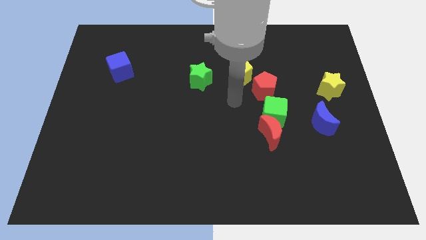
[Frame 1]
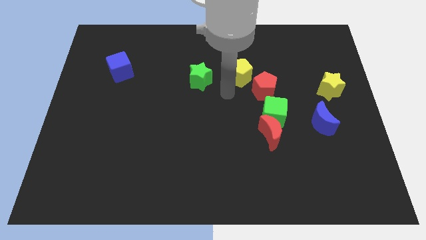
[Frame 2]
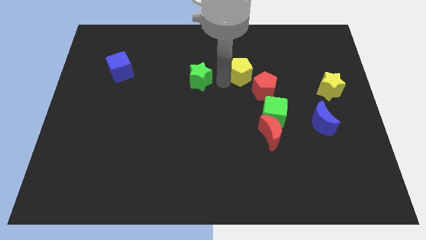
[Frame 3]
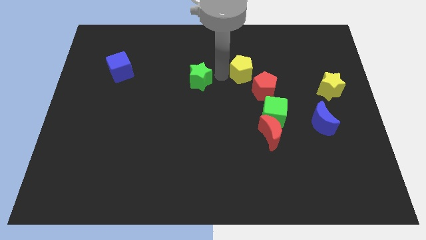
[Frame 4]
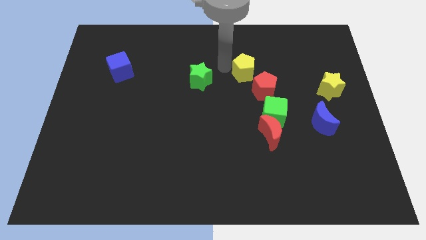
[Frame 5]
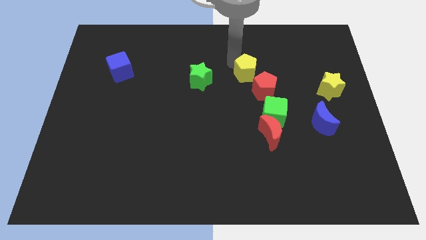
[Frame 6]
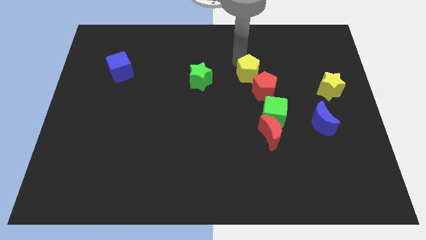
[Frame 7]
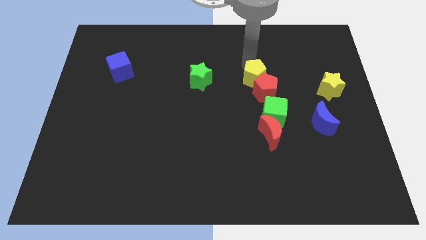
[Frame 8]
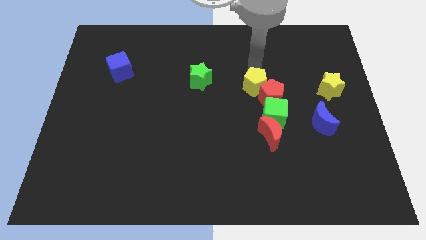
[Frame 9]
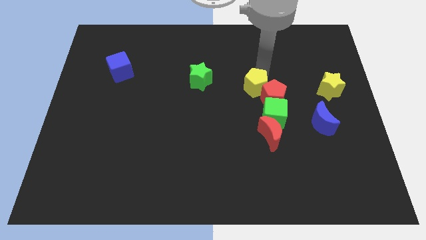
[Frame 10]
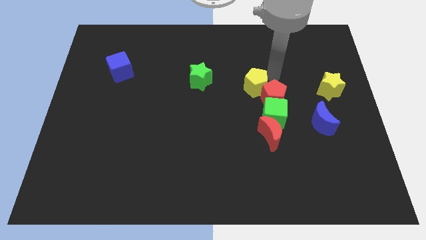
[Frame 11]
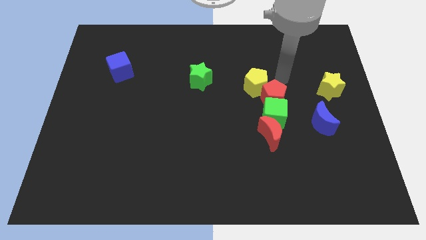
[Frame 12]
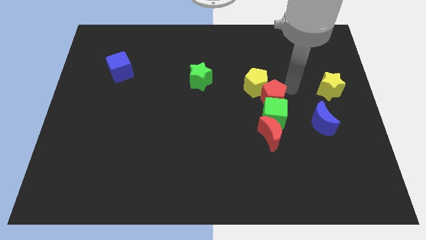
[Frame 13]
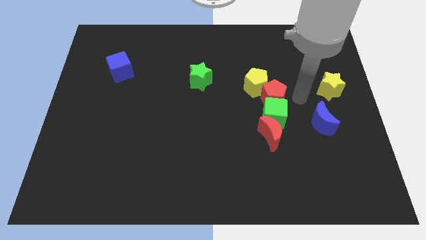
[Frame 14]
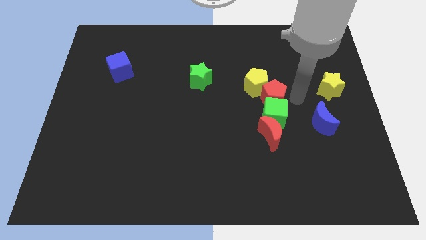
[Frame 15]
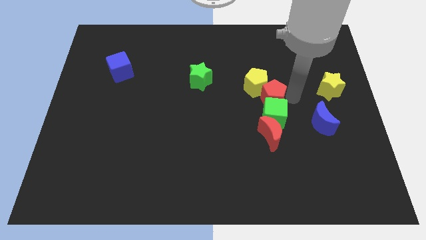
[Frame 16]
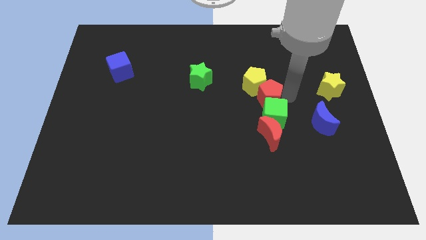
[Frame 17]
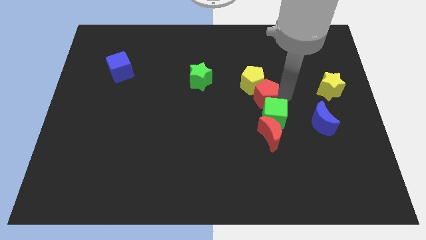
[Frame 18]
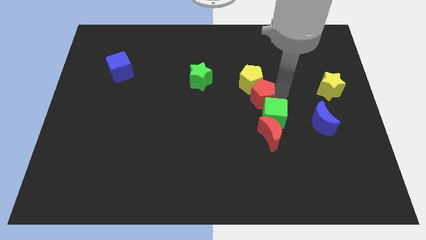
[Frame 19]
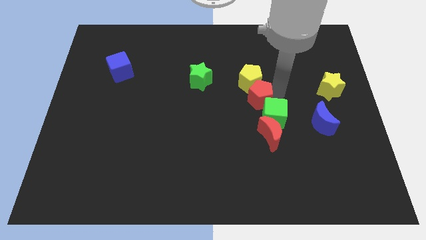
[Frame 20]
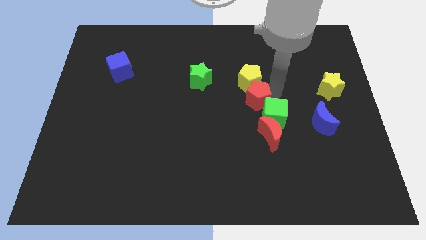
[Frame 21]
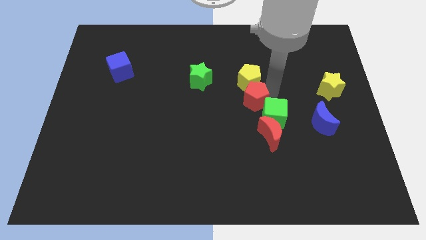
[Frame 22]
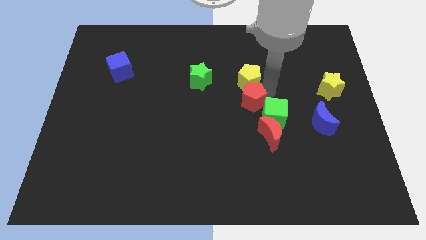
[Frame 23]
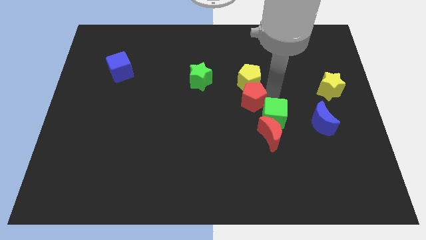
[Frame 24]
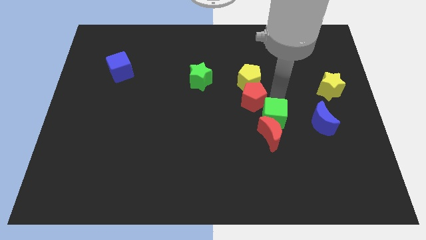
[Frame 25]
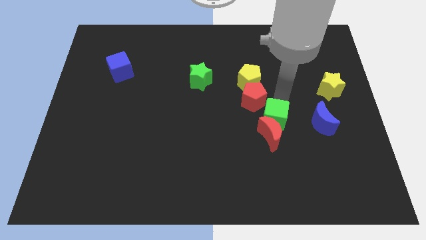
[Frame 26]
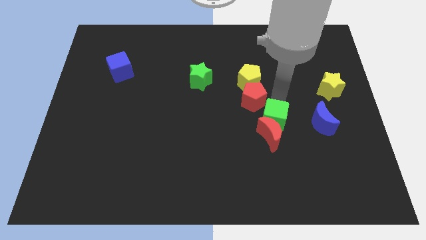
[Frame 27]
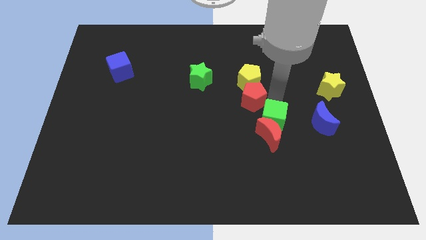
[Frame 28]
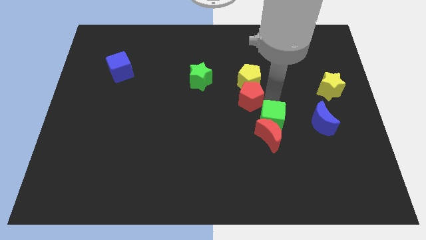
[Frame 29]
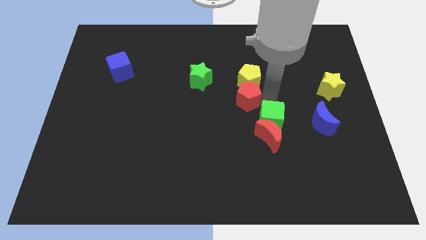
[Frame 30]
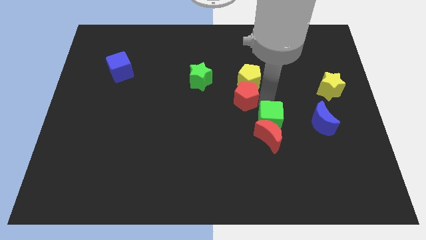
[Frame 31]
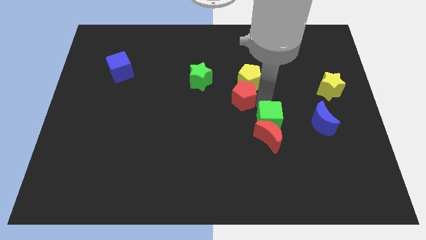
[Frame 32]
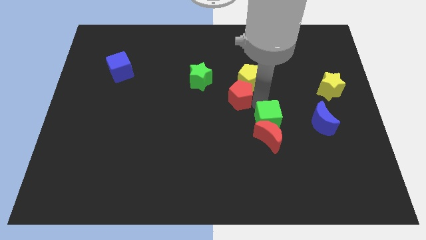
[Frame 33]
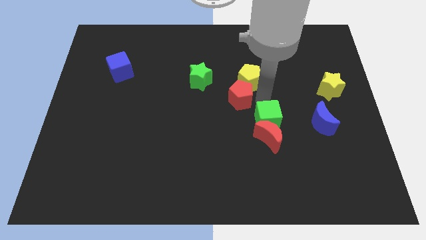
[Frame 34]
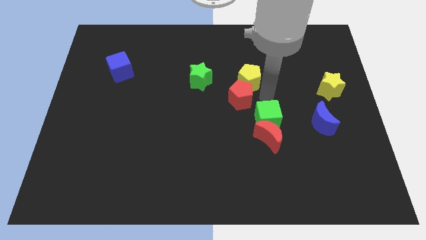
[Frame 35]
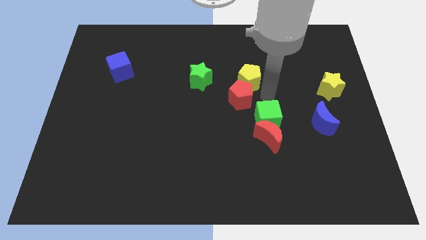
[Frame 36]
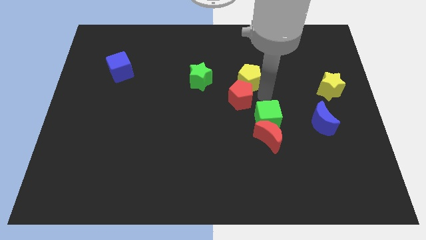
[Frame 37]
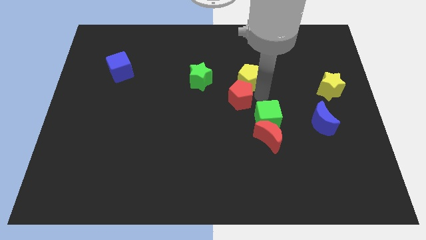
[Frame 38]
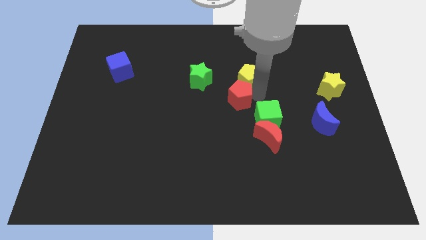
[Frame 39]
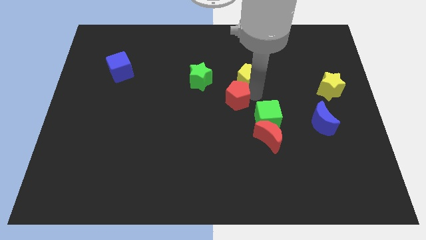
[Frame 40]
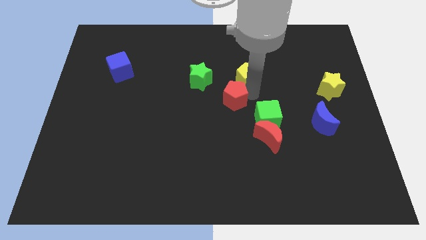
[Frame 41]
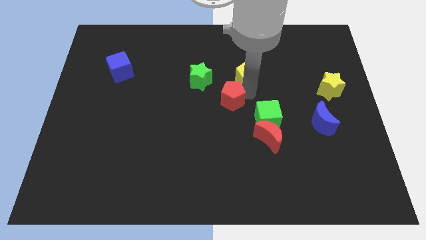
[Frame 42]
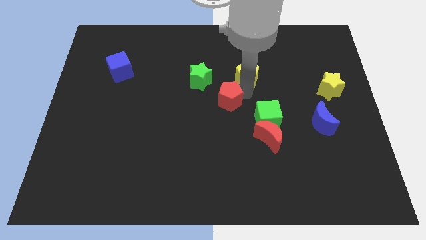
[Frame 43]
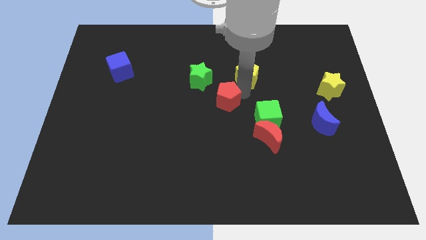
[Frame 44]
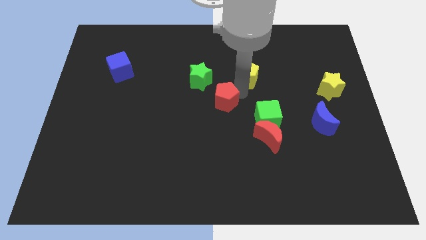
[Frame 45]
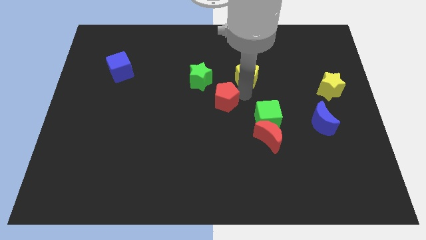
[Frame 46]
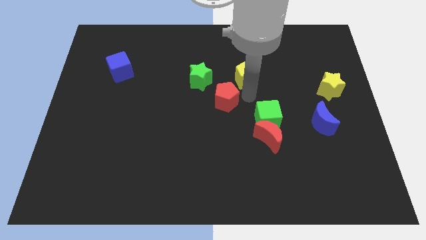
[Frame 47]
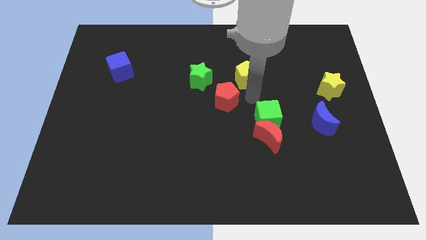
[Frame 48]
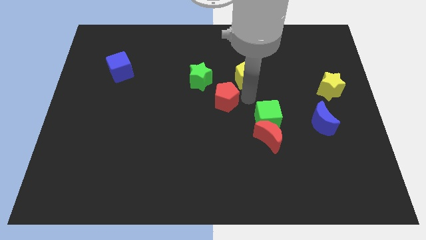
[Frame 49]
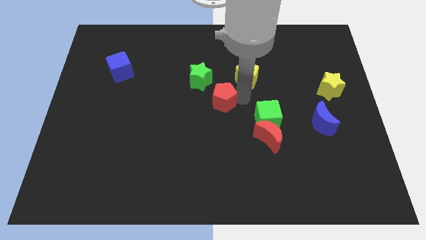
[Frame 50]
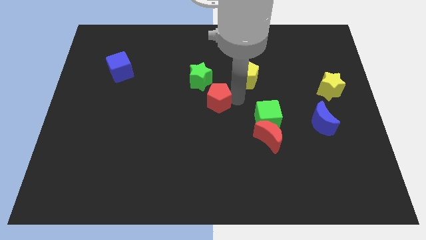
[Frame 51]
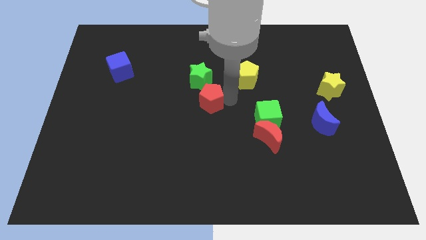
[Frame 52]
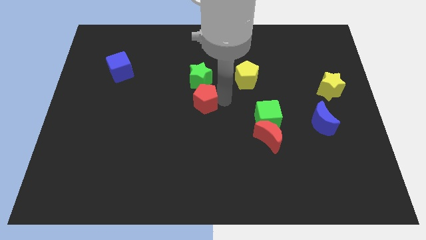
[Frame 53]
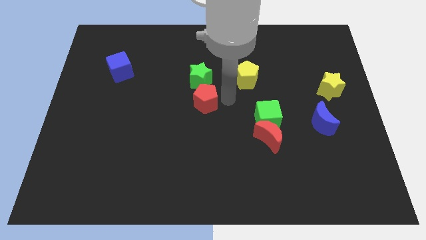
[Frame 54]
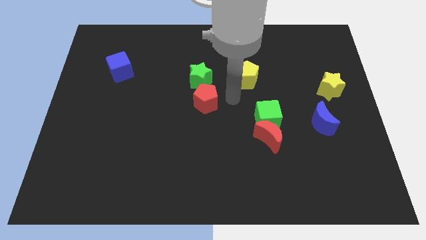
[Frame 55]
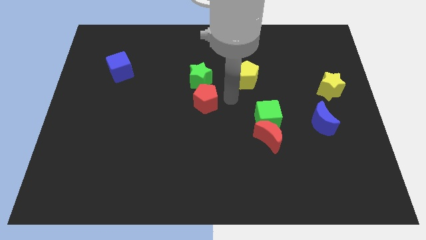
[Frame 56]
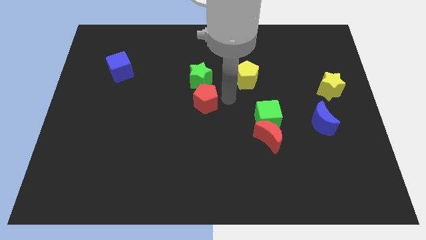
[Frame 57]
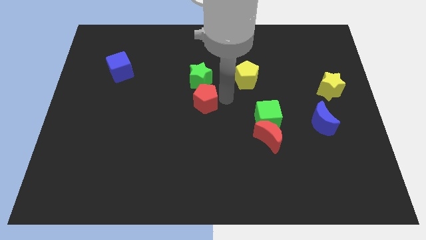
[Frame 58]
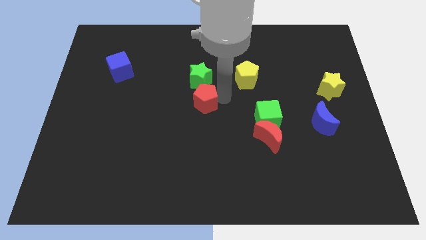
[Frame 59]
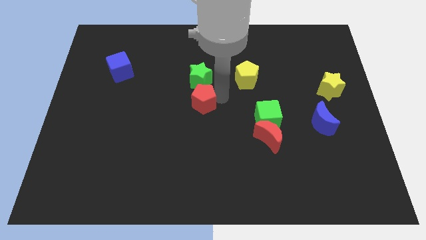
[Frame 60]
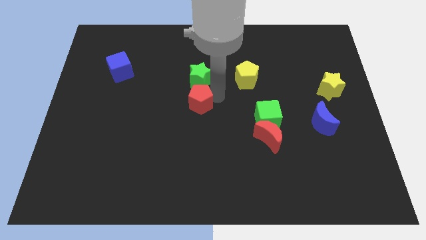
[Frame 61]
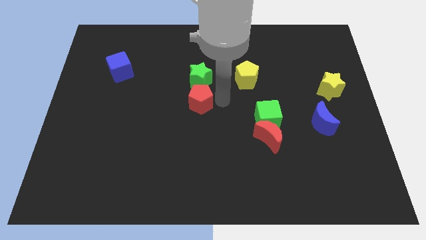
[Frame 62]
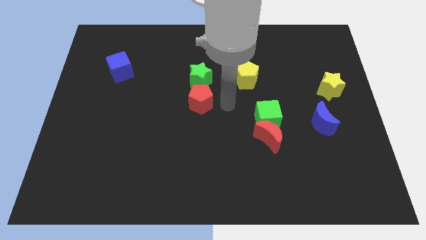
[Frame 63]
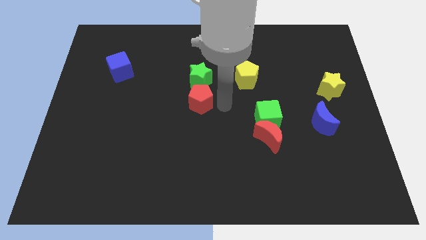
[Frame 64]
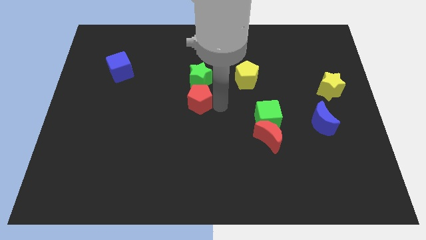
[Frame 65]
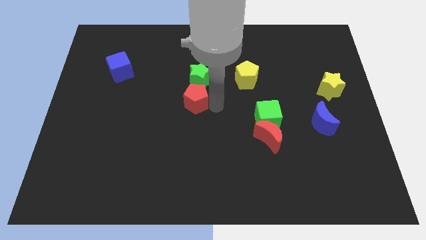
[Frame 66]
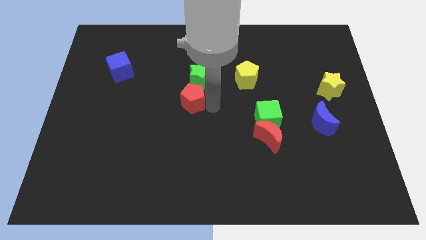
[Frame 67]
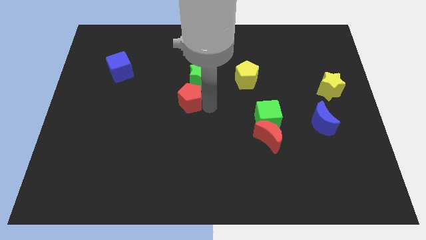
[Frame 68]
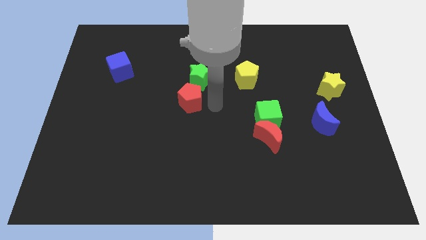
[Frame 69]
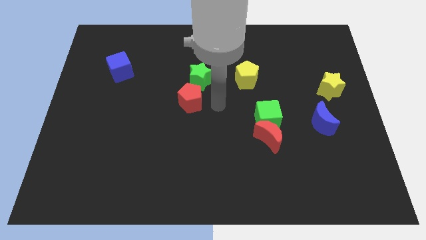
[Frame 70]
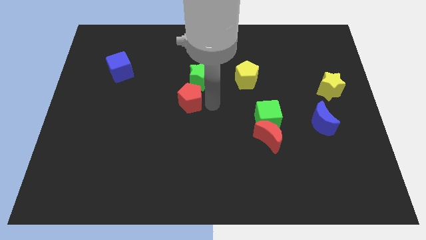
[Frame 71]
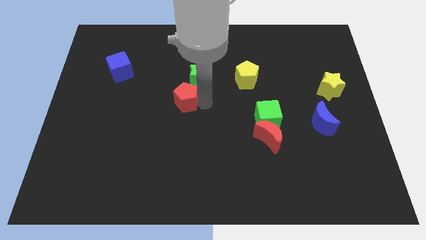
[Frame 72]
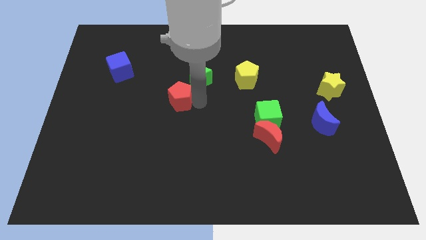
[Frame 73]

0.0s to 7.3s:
slide the red pentagon left

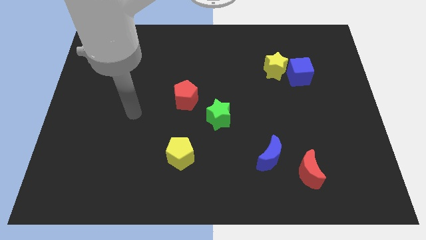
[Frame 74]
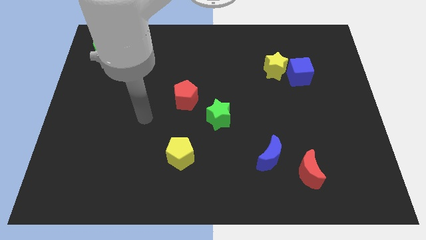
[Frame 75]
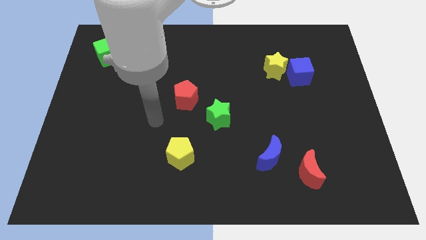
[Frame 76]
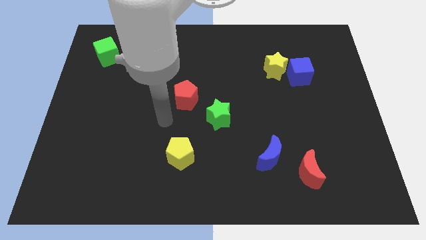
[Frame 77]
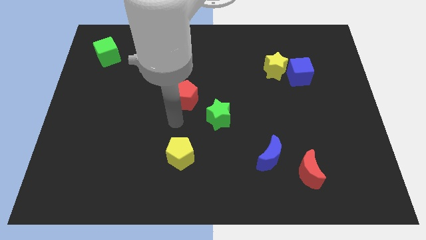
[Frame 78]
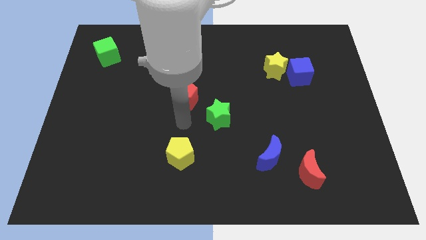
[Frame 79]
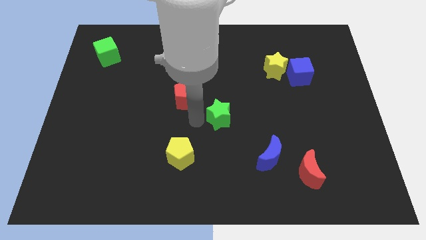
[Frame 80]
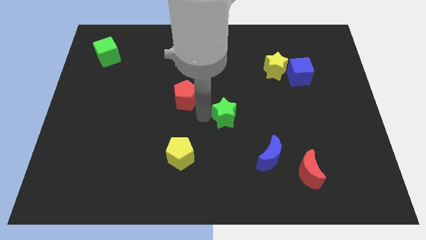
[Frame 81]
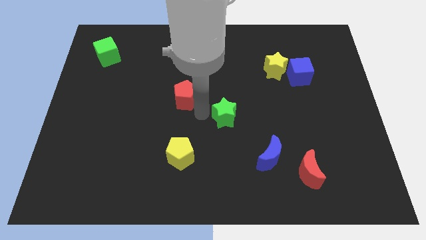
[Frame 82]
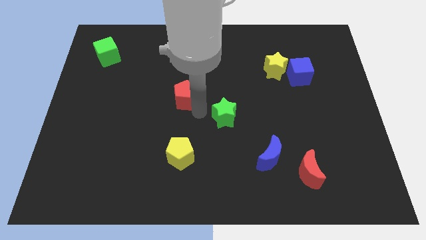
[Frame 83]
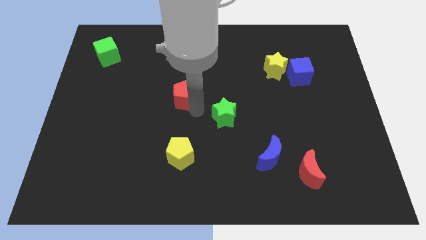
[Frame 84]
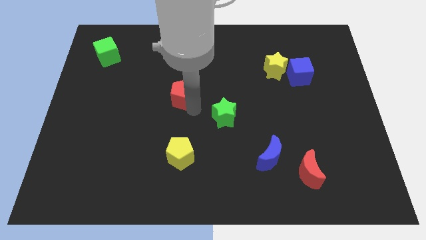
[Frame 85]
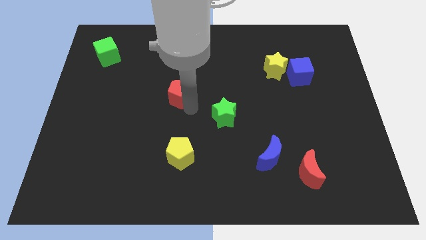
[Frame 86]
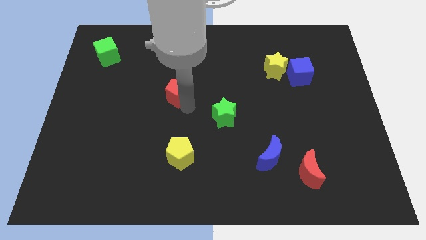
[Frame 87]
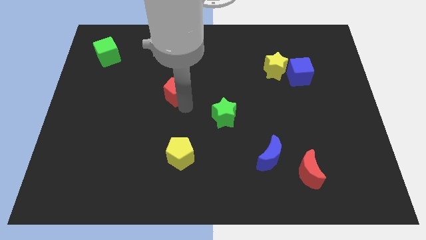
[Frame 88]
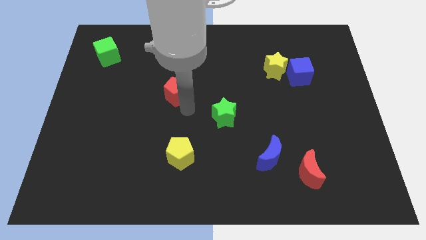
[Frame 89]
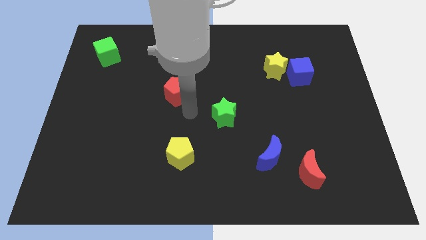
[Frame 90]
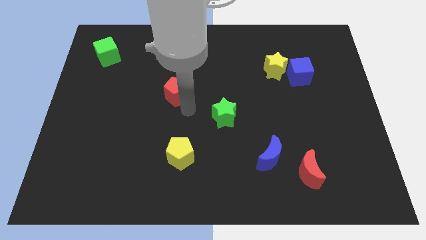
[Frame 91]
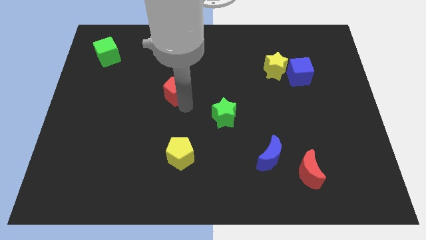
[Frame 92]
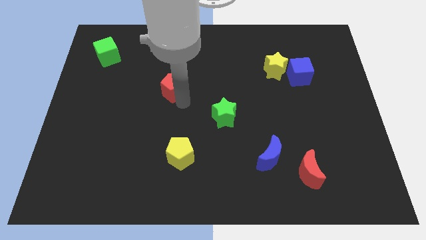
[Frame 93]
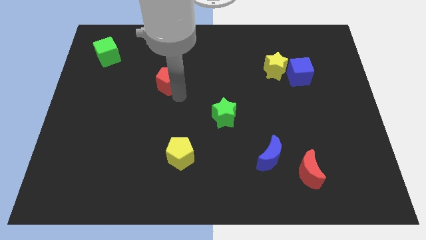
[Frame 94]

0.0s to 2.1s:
move the red pentagon up and then to the left a little bit
